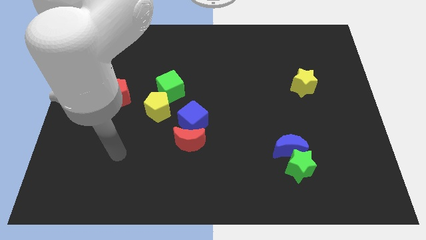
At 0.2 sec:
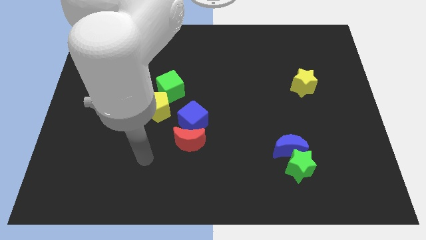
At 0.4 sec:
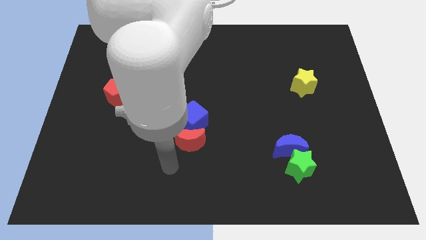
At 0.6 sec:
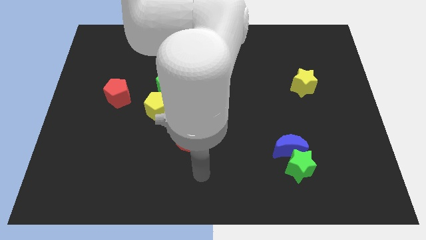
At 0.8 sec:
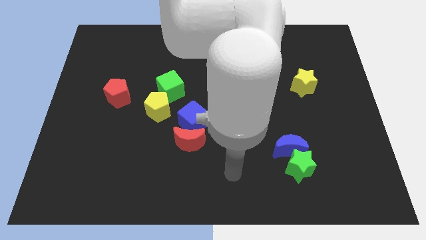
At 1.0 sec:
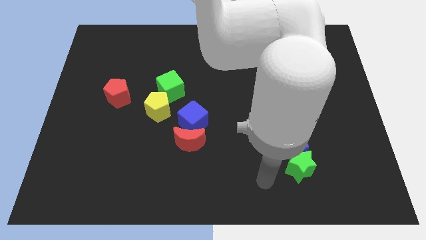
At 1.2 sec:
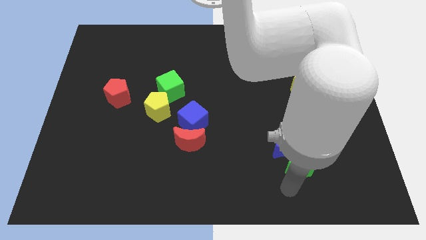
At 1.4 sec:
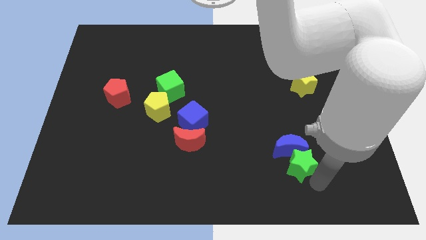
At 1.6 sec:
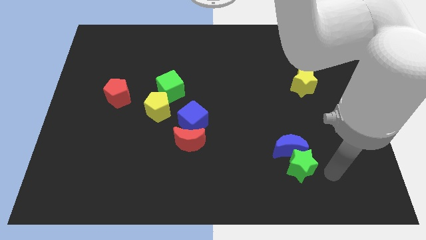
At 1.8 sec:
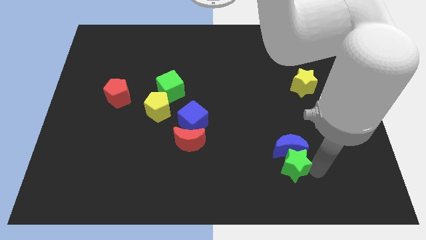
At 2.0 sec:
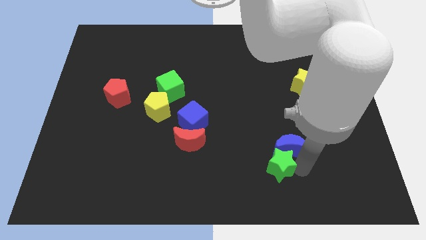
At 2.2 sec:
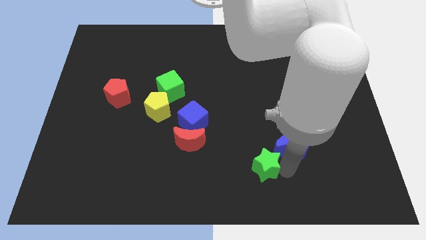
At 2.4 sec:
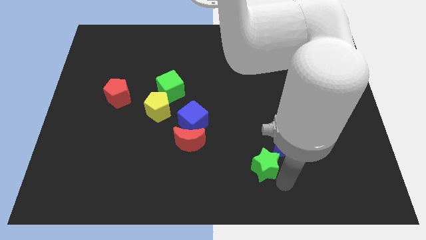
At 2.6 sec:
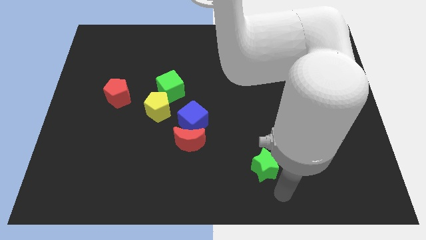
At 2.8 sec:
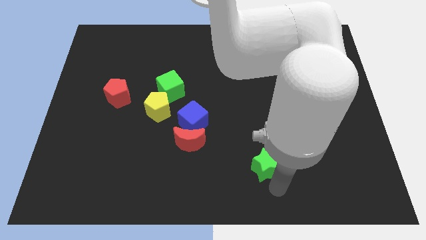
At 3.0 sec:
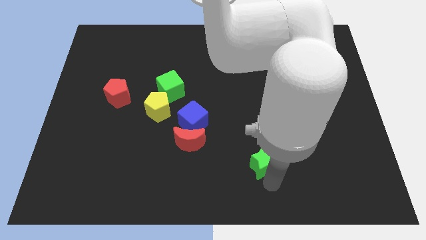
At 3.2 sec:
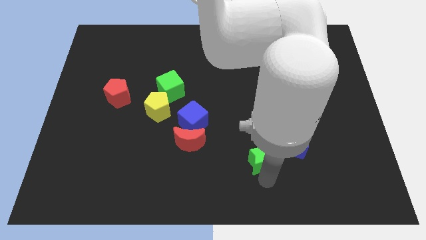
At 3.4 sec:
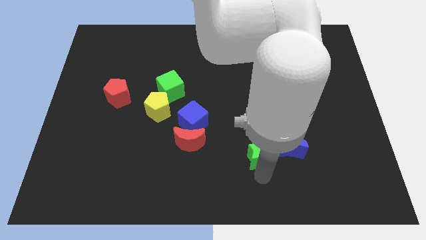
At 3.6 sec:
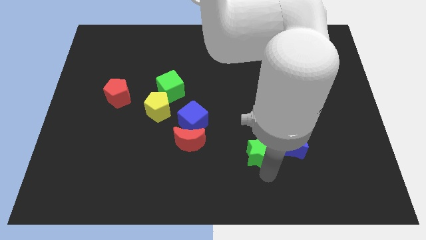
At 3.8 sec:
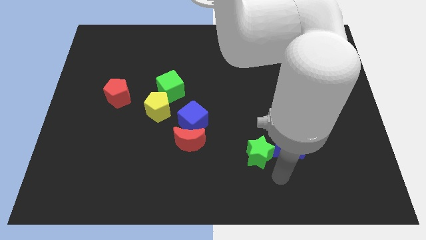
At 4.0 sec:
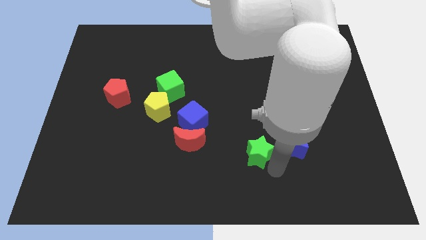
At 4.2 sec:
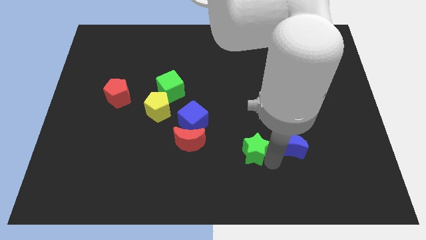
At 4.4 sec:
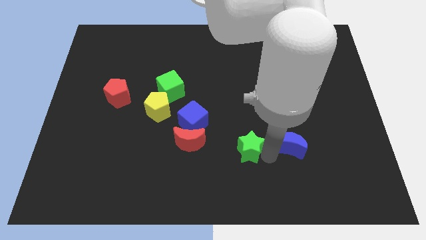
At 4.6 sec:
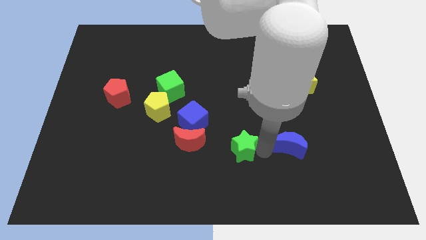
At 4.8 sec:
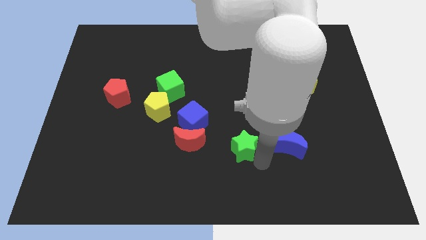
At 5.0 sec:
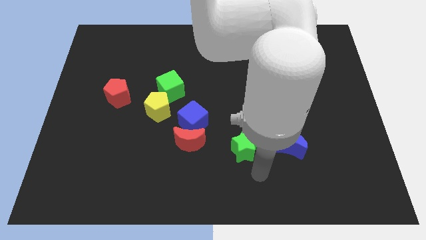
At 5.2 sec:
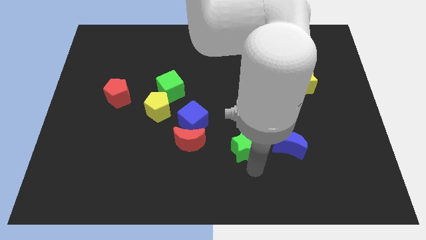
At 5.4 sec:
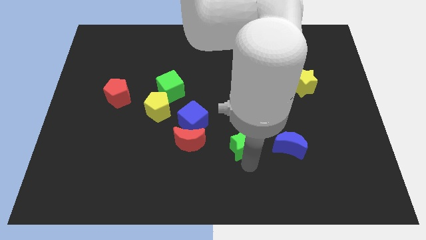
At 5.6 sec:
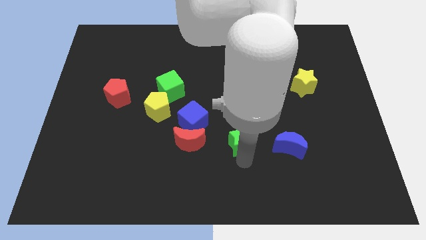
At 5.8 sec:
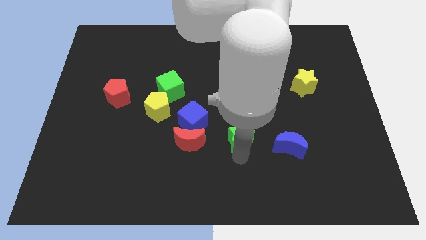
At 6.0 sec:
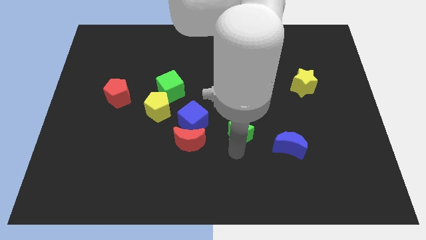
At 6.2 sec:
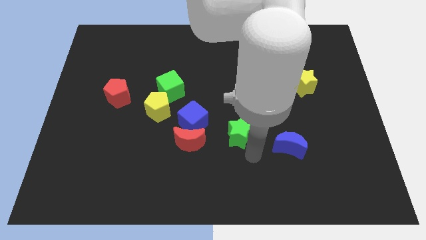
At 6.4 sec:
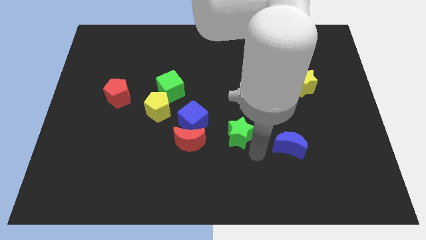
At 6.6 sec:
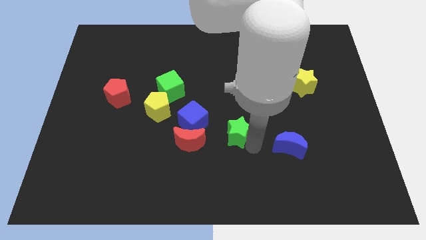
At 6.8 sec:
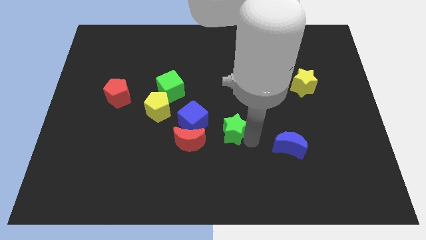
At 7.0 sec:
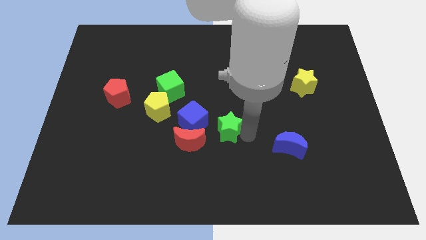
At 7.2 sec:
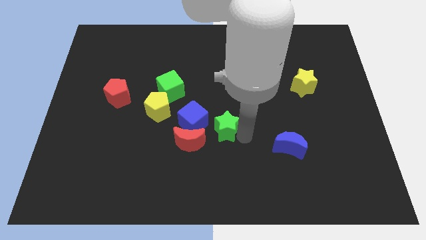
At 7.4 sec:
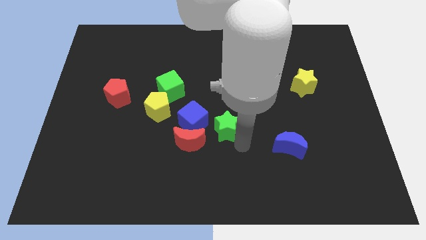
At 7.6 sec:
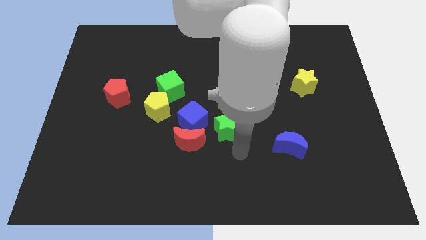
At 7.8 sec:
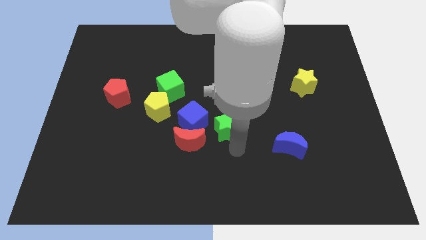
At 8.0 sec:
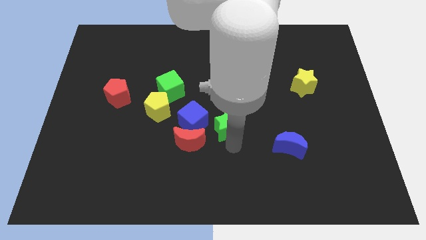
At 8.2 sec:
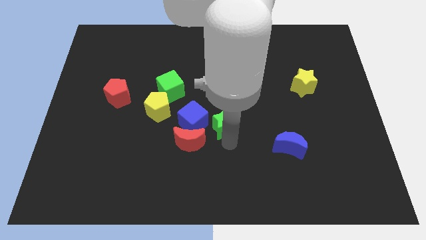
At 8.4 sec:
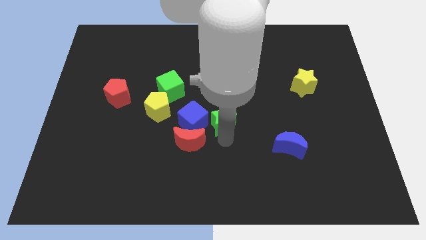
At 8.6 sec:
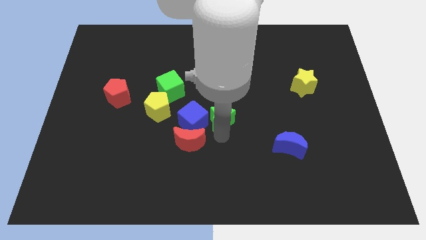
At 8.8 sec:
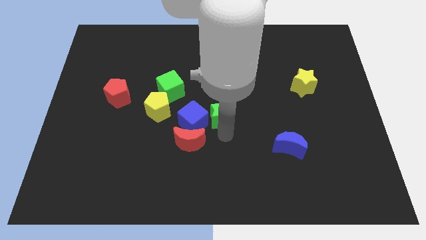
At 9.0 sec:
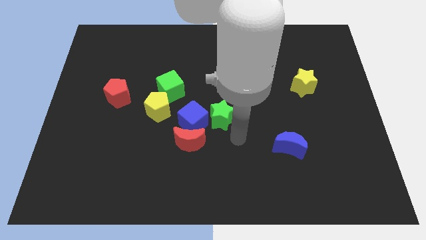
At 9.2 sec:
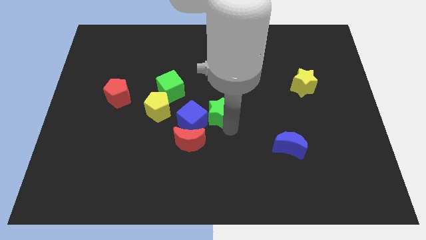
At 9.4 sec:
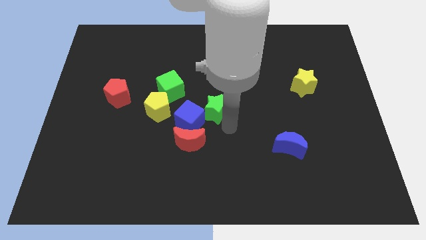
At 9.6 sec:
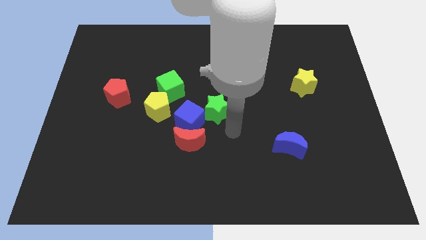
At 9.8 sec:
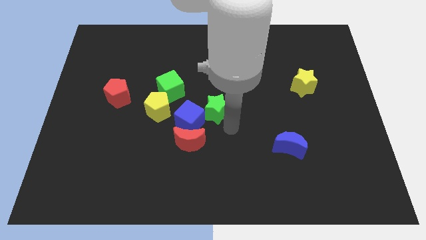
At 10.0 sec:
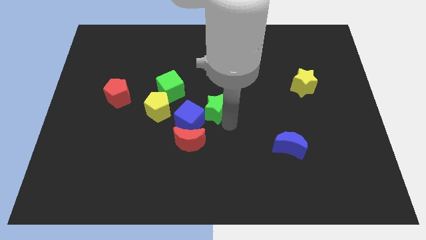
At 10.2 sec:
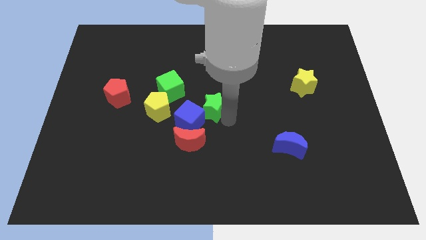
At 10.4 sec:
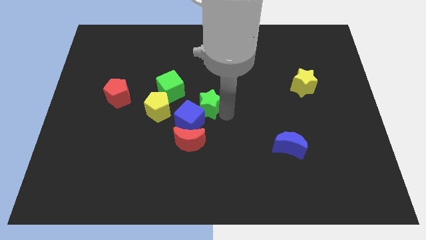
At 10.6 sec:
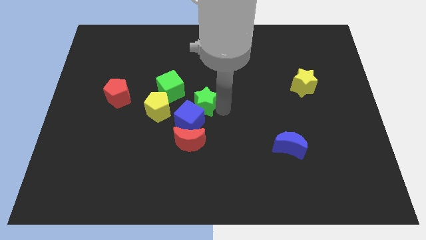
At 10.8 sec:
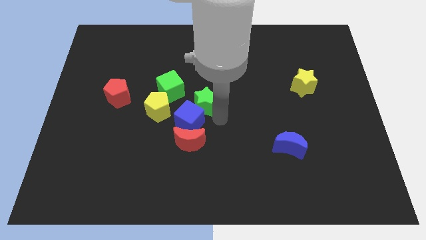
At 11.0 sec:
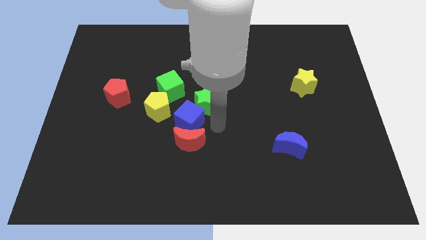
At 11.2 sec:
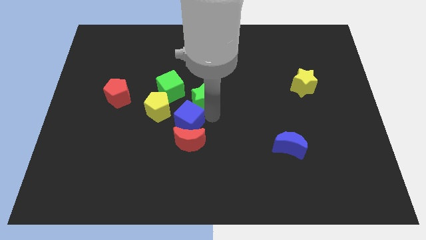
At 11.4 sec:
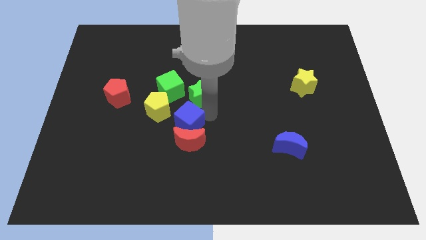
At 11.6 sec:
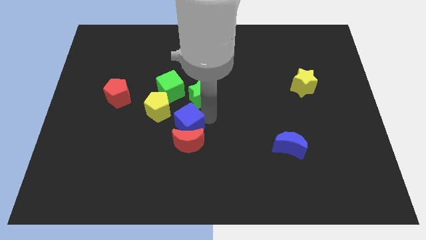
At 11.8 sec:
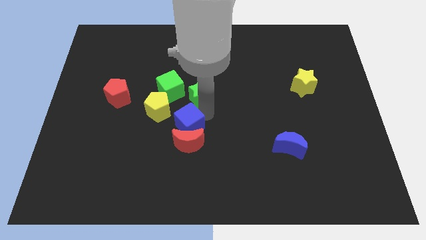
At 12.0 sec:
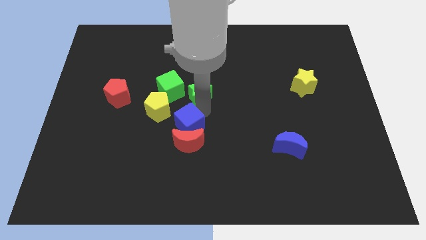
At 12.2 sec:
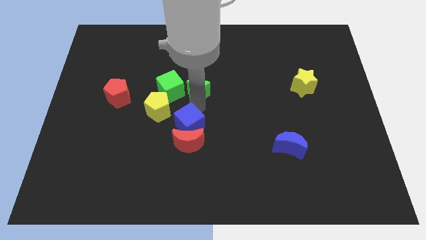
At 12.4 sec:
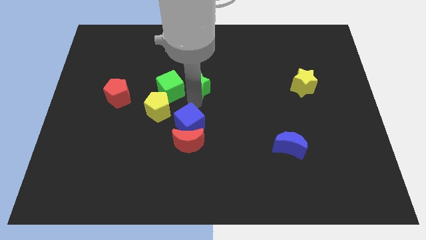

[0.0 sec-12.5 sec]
slide the green star to the top right side of the green cube

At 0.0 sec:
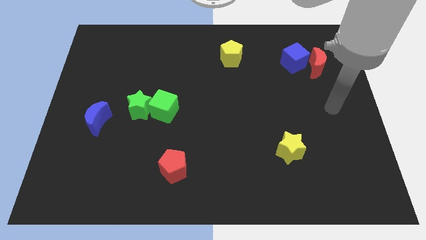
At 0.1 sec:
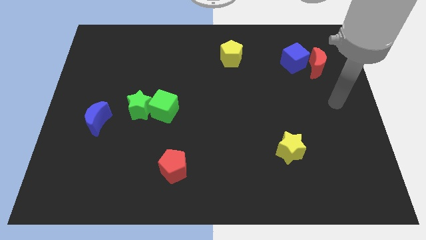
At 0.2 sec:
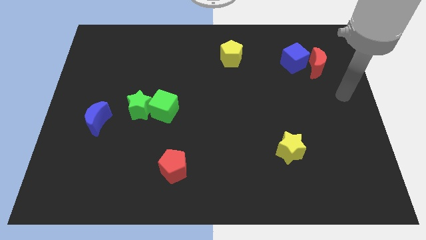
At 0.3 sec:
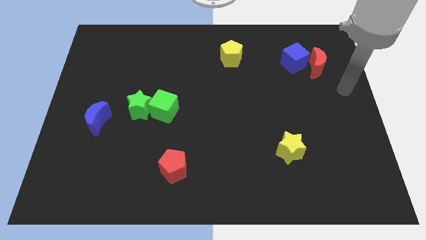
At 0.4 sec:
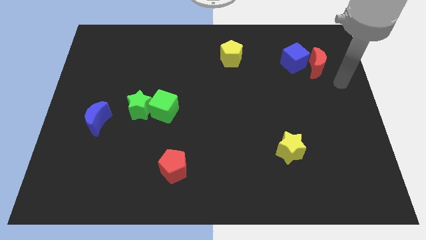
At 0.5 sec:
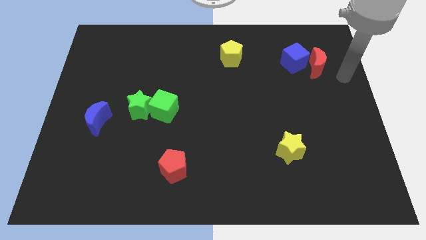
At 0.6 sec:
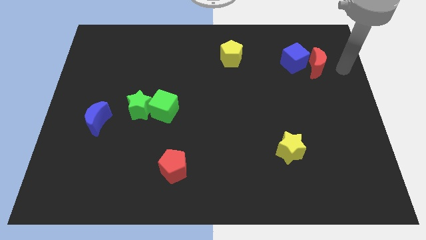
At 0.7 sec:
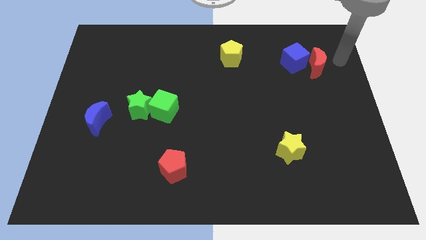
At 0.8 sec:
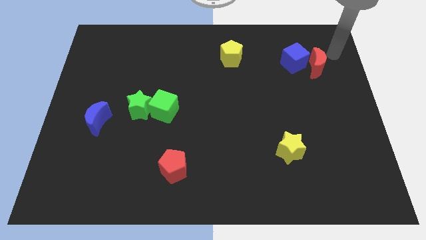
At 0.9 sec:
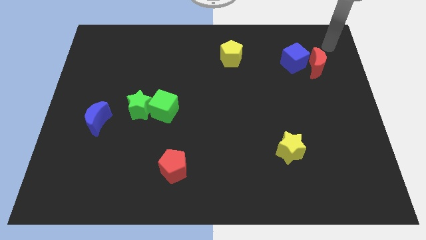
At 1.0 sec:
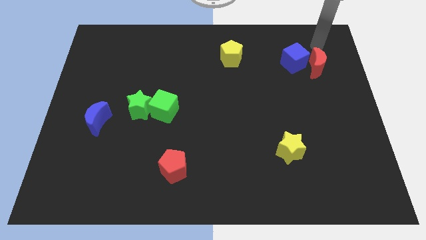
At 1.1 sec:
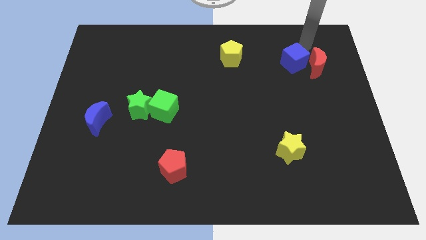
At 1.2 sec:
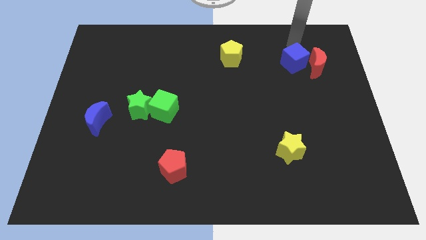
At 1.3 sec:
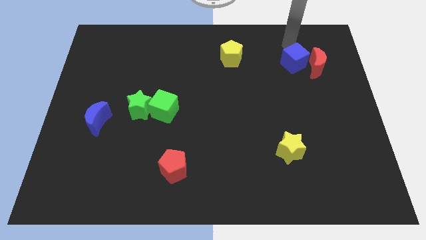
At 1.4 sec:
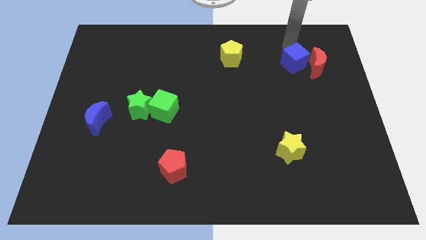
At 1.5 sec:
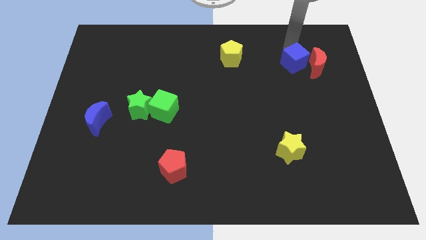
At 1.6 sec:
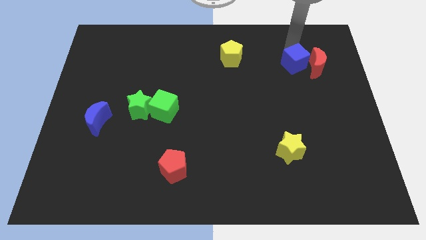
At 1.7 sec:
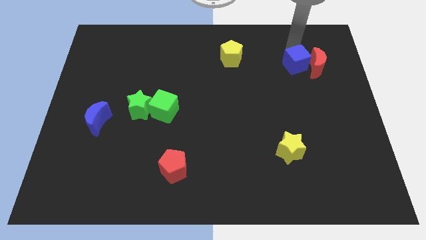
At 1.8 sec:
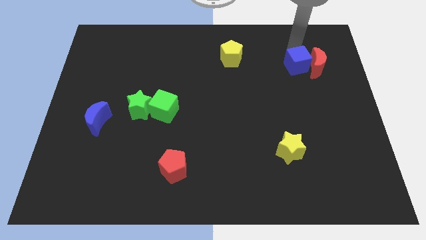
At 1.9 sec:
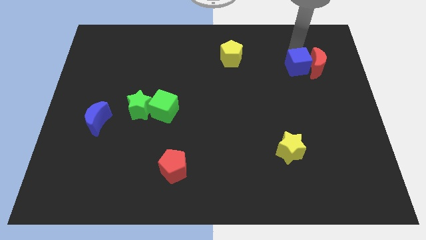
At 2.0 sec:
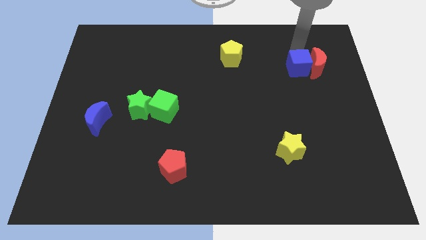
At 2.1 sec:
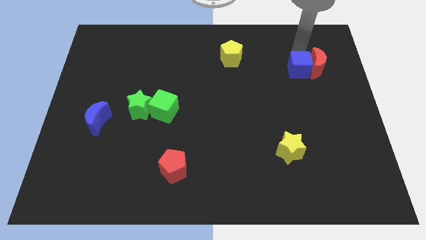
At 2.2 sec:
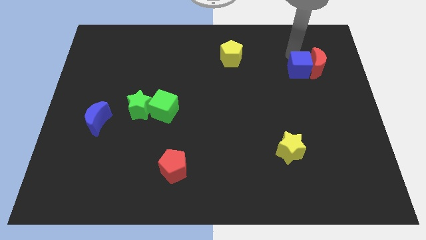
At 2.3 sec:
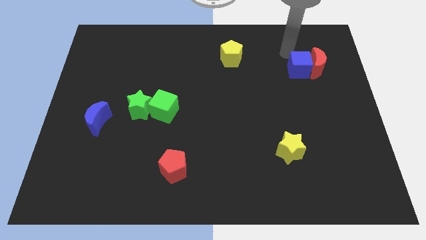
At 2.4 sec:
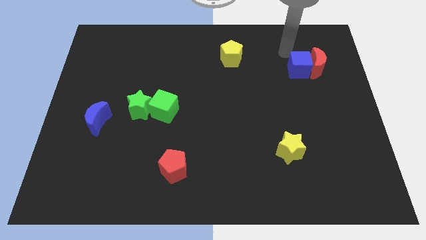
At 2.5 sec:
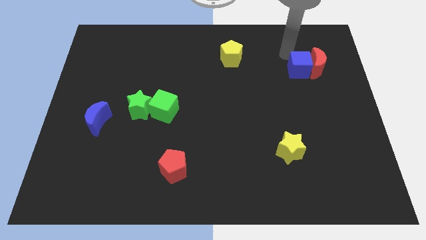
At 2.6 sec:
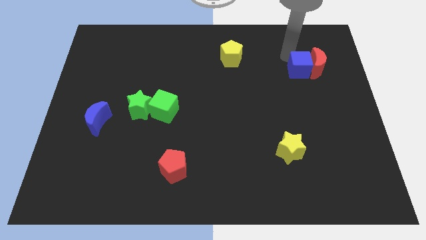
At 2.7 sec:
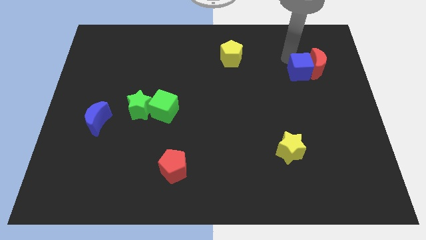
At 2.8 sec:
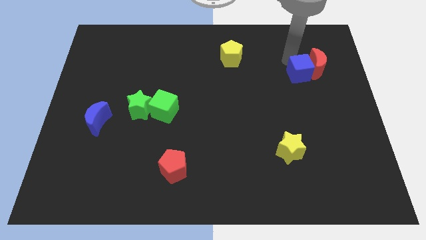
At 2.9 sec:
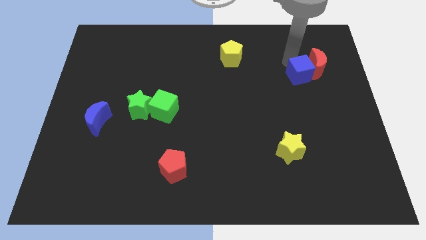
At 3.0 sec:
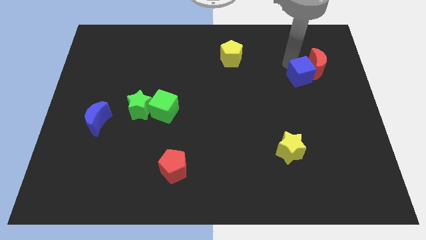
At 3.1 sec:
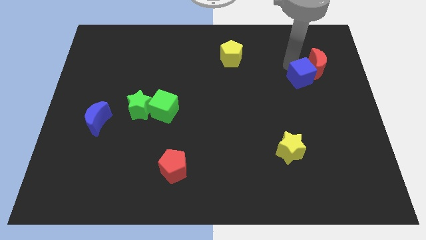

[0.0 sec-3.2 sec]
slide the blue cube below the red moon
